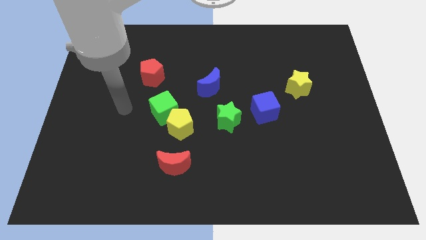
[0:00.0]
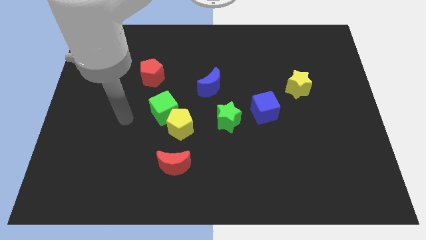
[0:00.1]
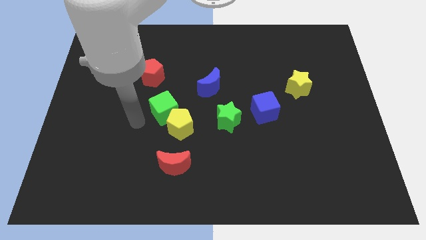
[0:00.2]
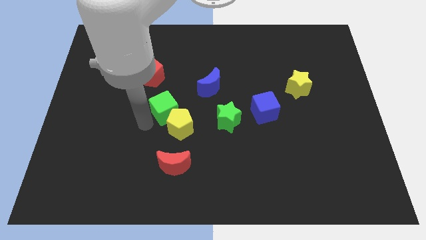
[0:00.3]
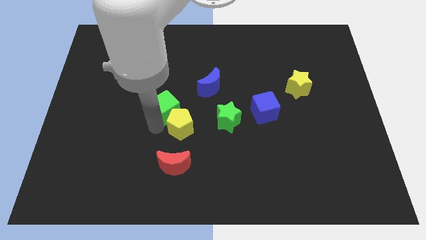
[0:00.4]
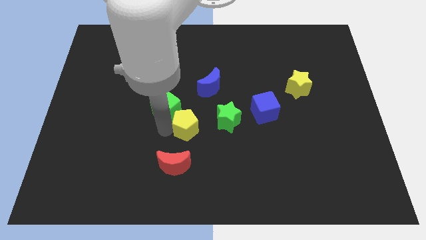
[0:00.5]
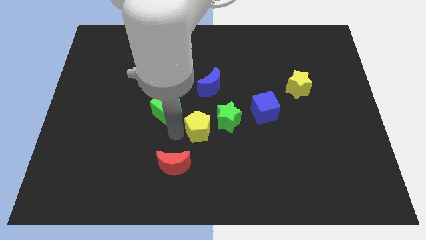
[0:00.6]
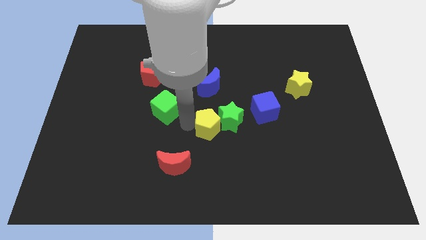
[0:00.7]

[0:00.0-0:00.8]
pull the green cube apart from the yellow pentagon

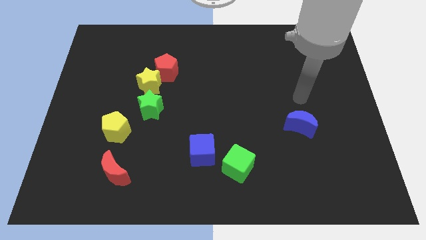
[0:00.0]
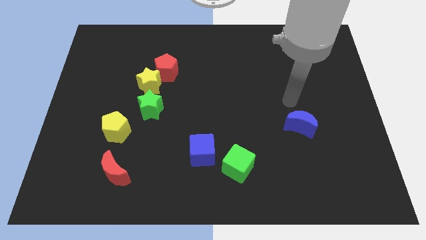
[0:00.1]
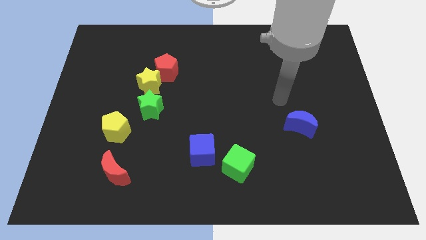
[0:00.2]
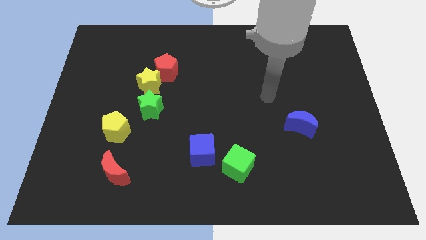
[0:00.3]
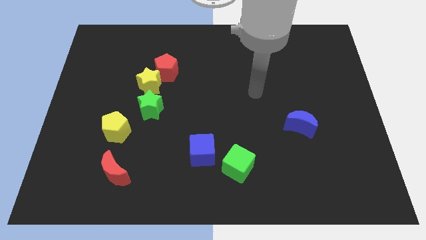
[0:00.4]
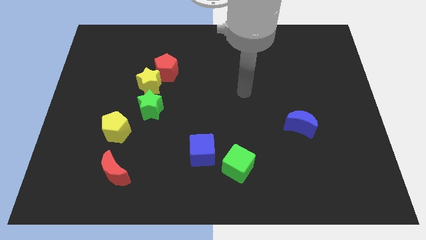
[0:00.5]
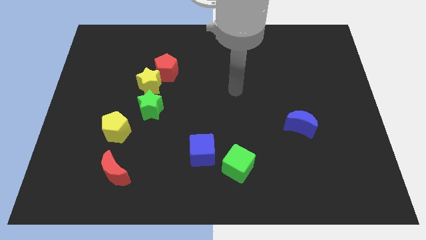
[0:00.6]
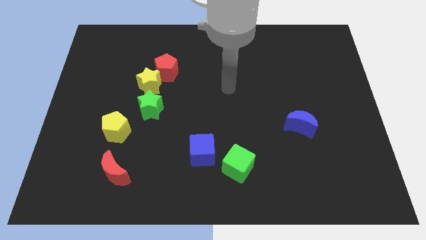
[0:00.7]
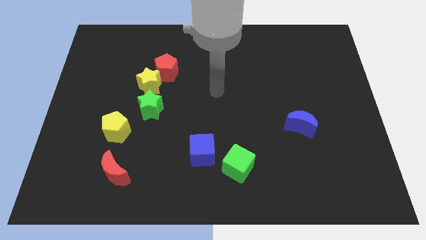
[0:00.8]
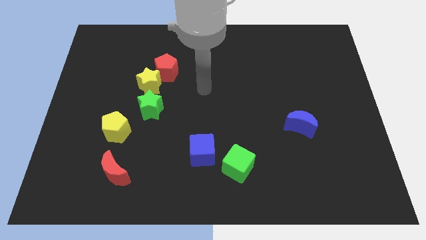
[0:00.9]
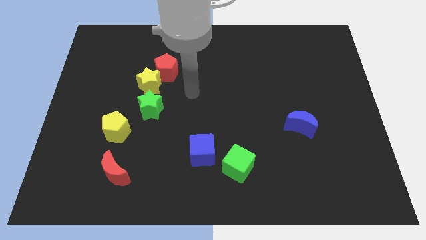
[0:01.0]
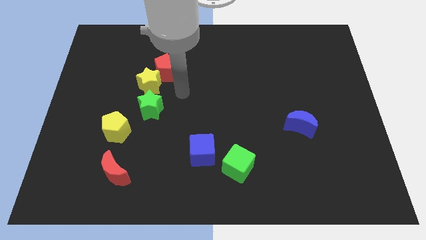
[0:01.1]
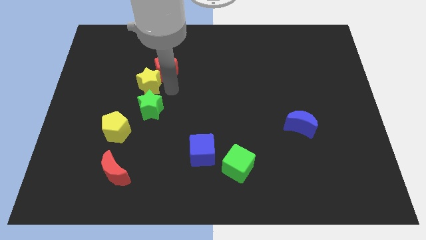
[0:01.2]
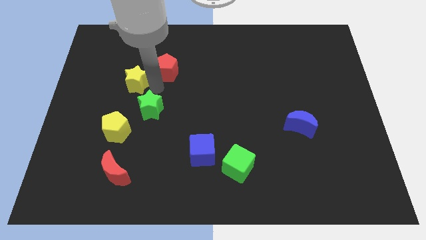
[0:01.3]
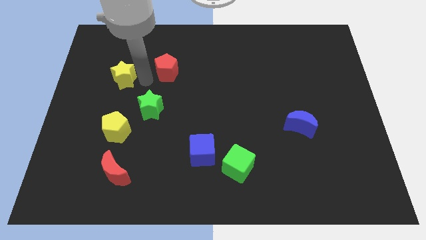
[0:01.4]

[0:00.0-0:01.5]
pull the red pentagon apart from the yellow star

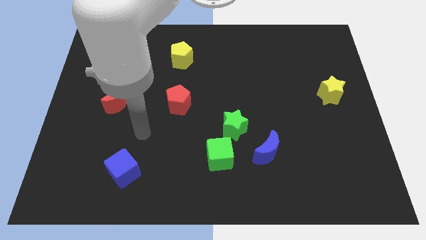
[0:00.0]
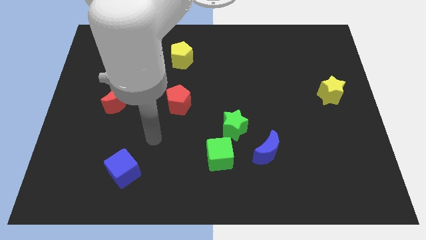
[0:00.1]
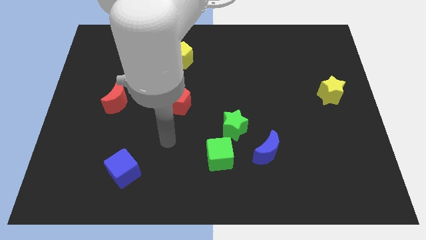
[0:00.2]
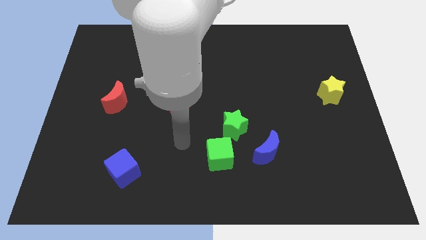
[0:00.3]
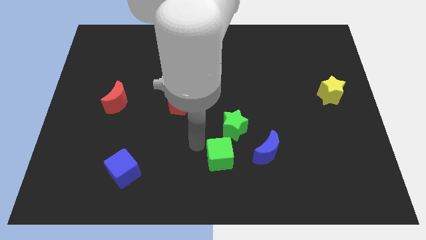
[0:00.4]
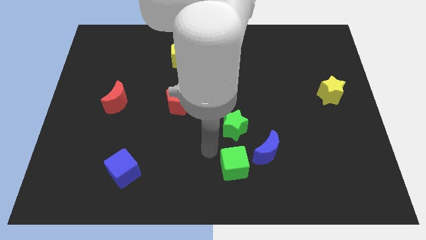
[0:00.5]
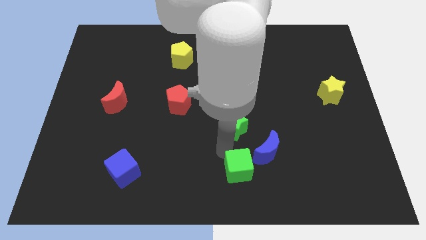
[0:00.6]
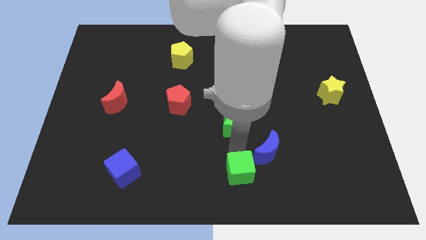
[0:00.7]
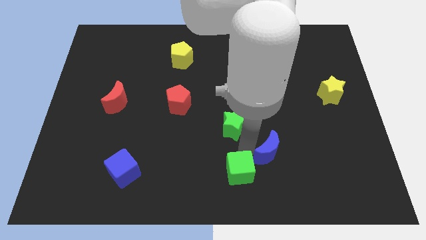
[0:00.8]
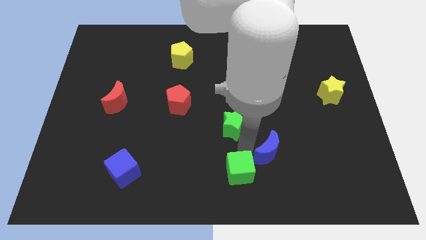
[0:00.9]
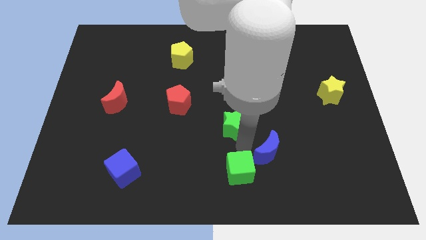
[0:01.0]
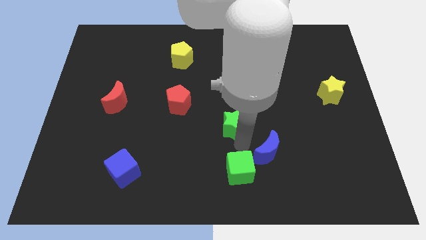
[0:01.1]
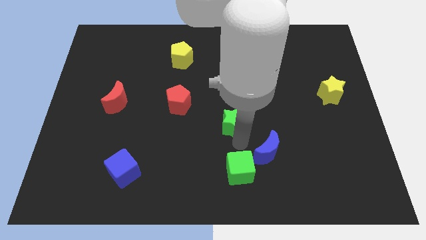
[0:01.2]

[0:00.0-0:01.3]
pull the green star apart from the green cube and blue moon

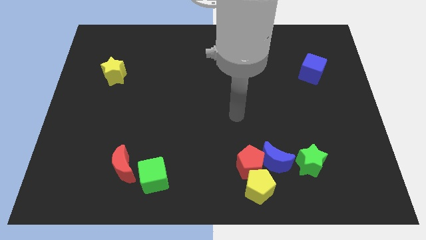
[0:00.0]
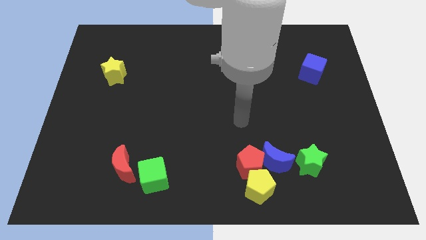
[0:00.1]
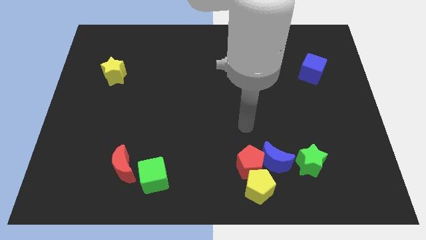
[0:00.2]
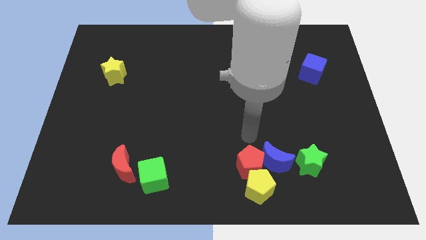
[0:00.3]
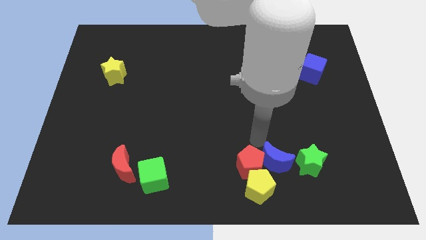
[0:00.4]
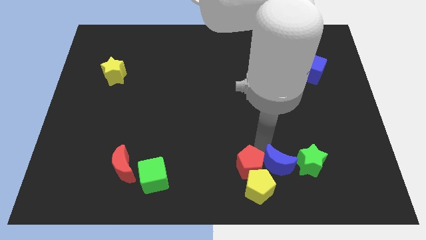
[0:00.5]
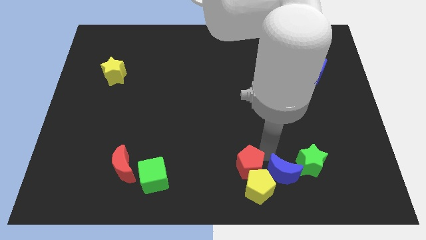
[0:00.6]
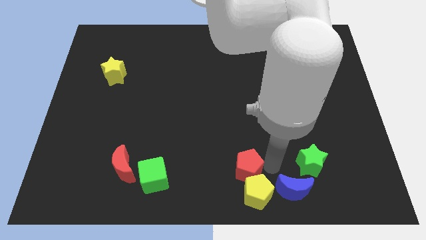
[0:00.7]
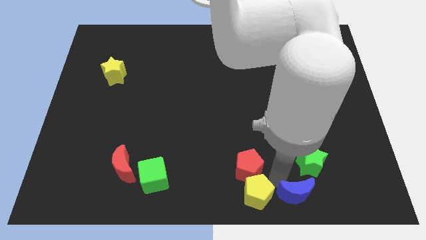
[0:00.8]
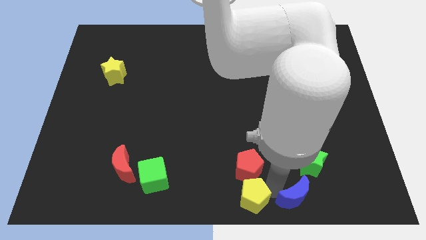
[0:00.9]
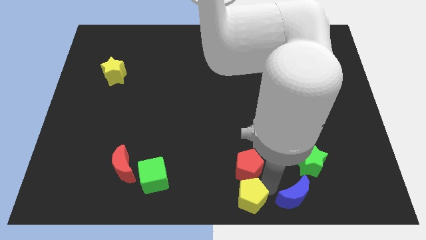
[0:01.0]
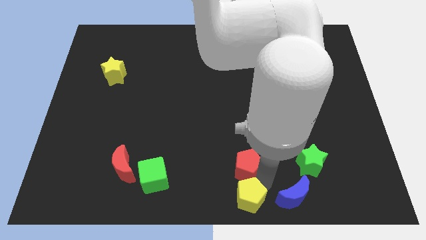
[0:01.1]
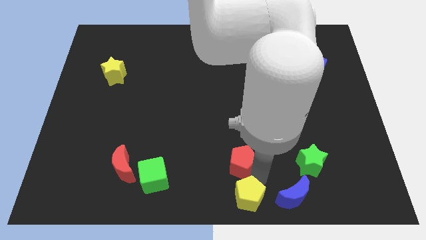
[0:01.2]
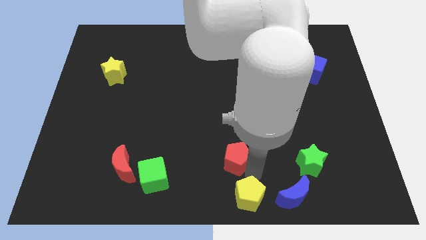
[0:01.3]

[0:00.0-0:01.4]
pull the red pentagon apart from the blue moon and yellow pentagon

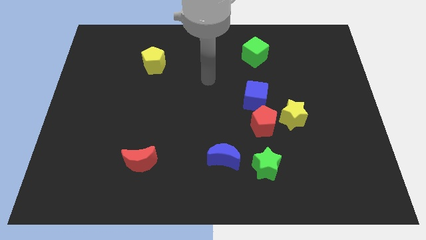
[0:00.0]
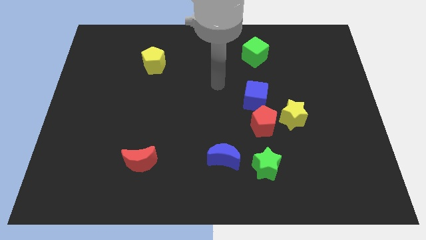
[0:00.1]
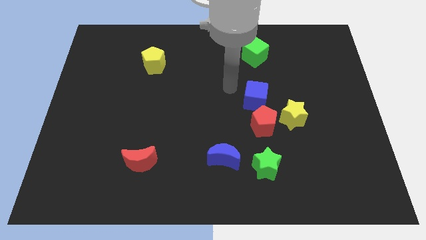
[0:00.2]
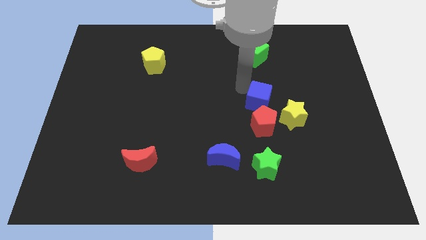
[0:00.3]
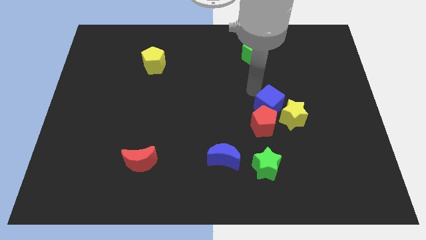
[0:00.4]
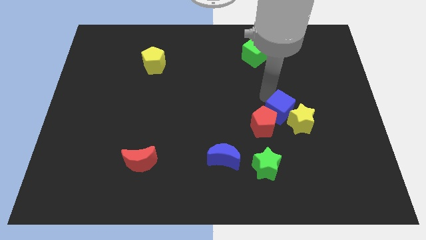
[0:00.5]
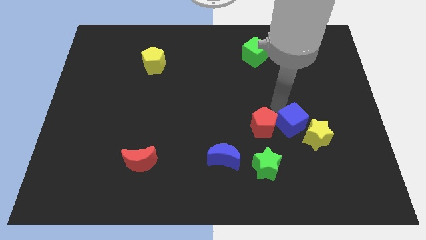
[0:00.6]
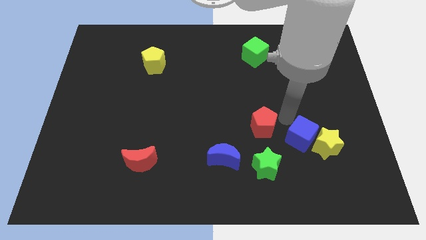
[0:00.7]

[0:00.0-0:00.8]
separate the red pentagon from the yellow star and blue cube

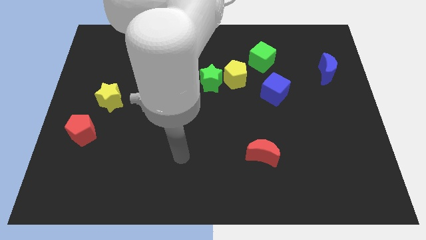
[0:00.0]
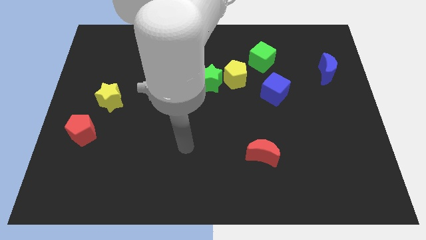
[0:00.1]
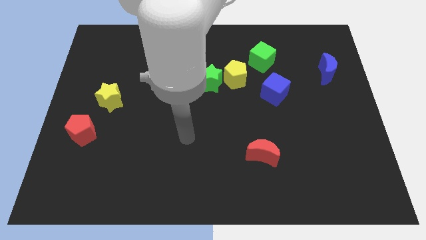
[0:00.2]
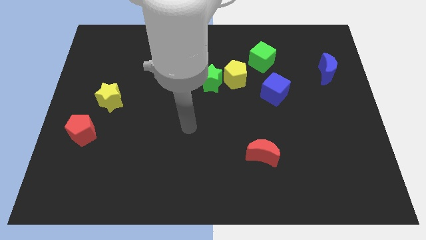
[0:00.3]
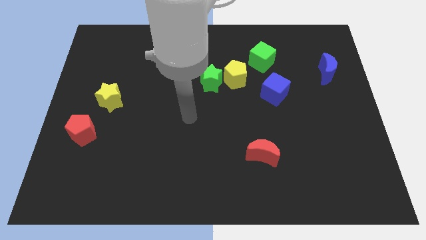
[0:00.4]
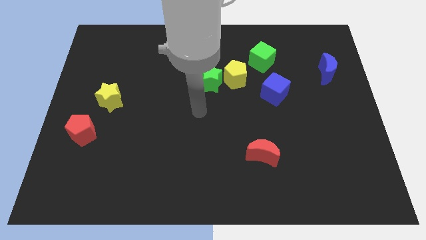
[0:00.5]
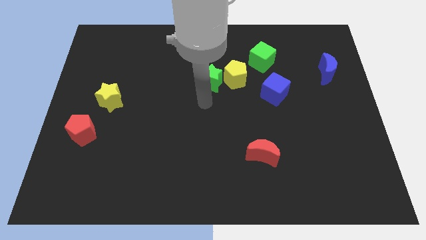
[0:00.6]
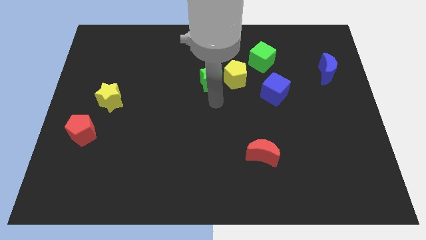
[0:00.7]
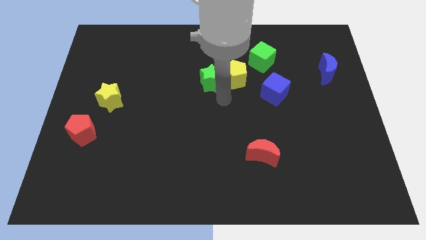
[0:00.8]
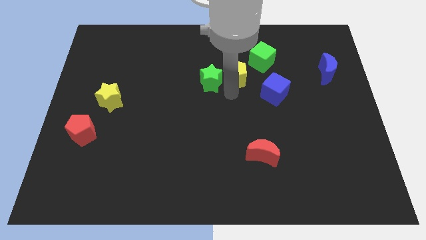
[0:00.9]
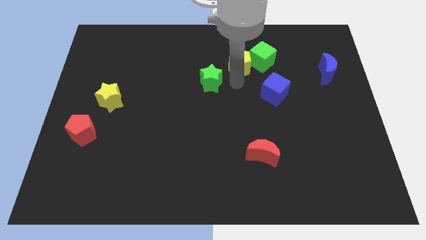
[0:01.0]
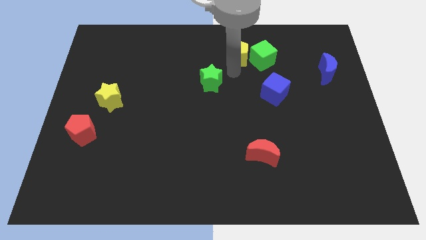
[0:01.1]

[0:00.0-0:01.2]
move the green star away from the yellow pentagon

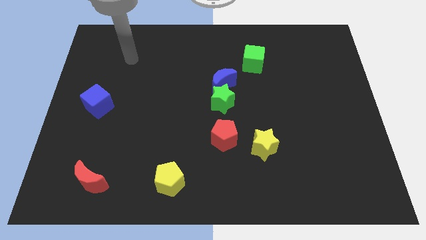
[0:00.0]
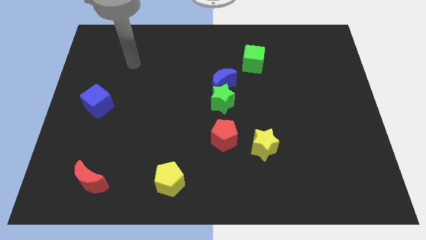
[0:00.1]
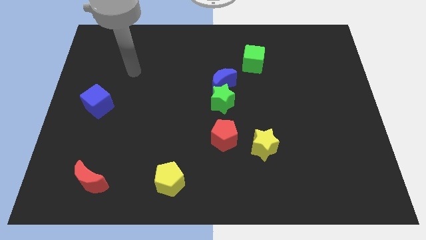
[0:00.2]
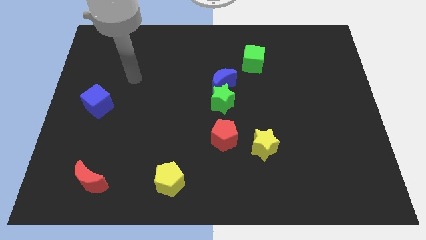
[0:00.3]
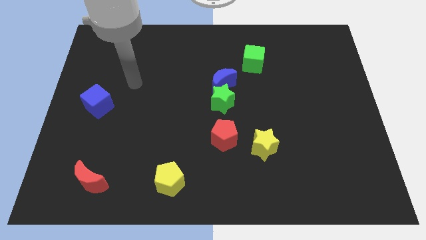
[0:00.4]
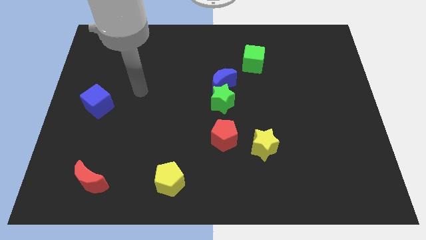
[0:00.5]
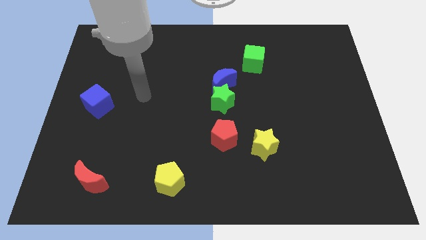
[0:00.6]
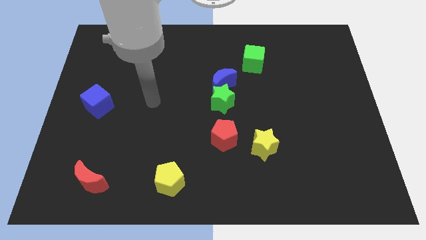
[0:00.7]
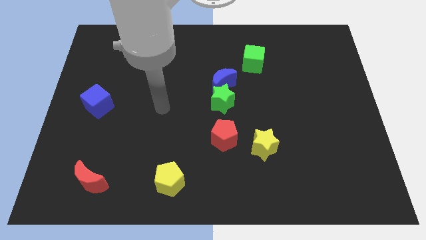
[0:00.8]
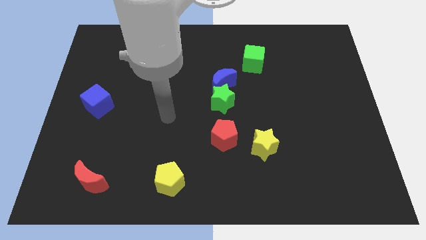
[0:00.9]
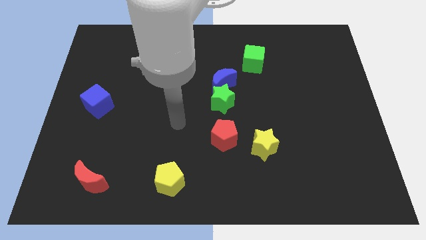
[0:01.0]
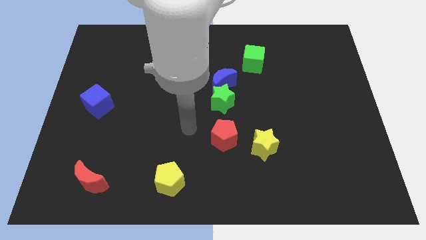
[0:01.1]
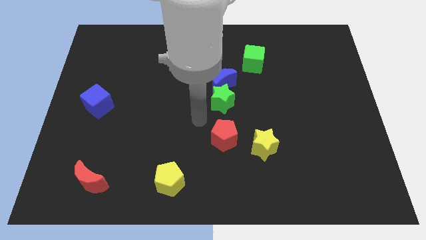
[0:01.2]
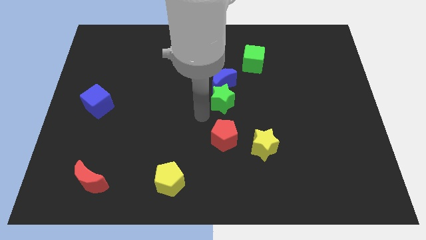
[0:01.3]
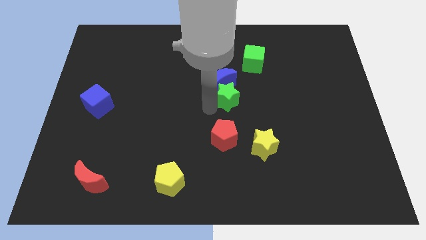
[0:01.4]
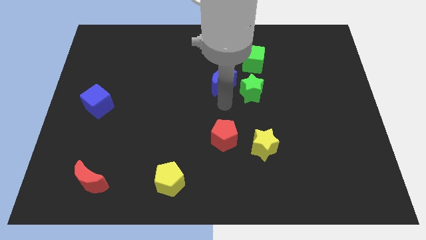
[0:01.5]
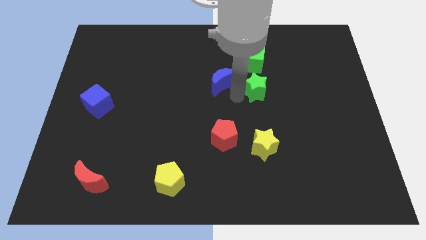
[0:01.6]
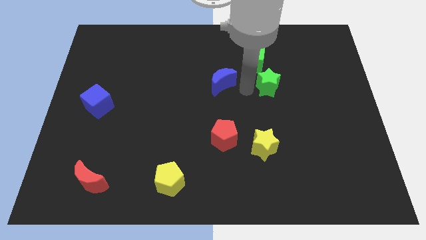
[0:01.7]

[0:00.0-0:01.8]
move the blue moon away from the green star

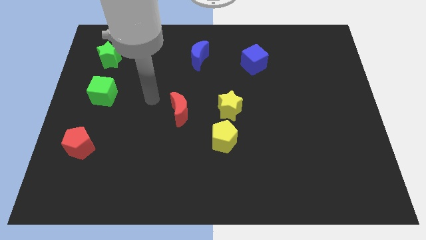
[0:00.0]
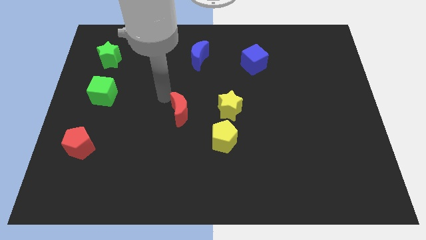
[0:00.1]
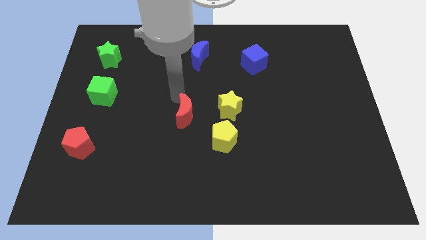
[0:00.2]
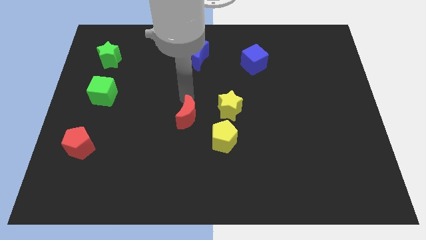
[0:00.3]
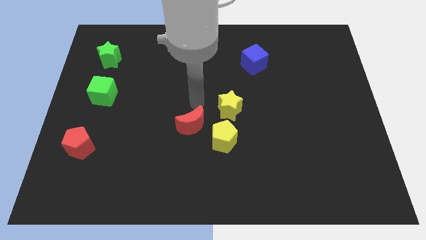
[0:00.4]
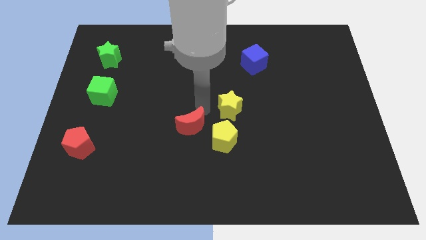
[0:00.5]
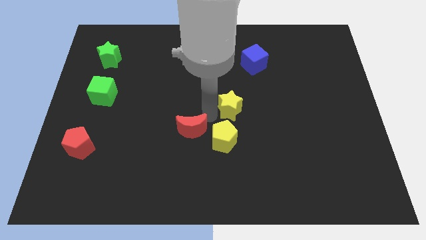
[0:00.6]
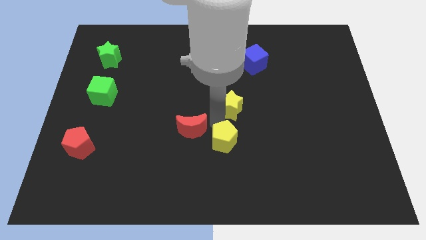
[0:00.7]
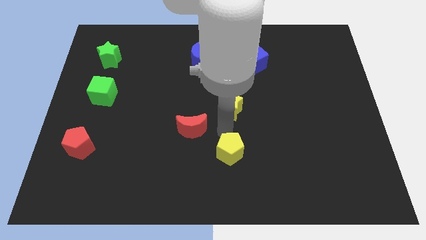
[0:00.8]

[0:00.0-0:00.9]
move the yellow star away from the yellow pentagon
